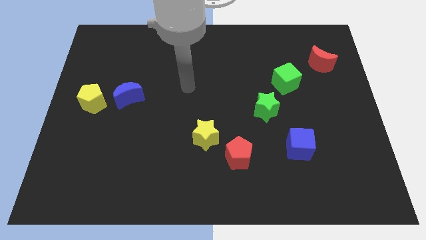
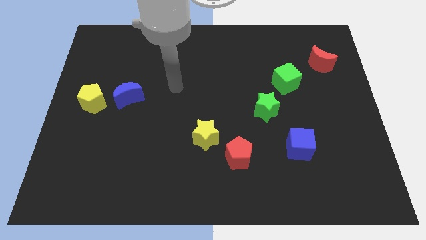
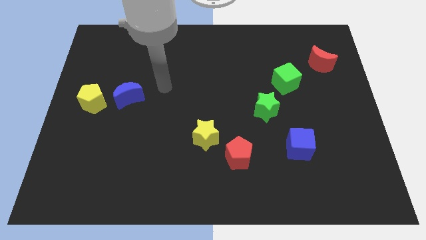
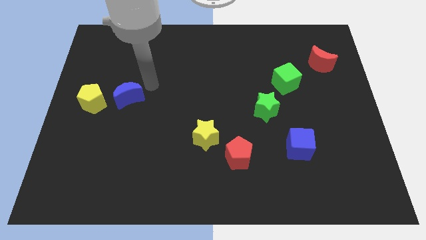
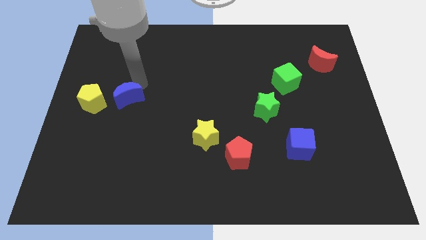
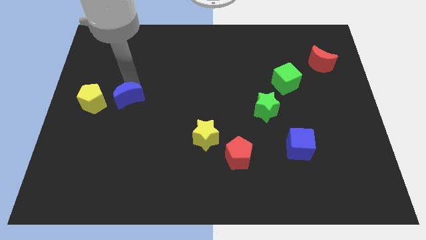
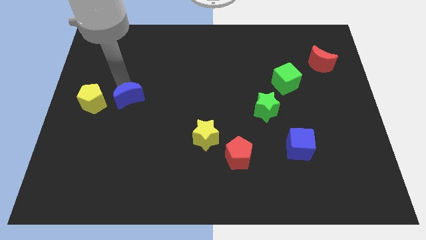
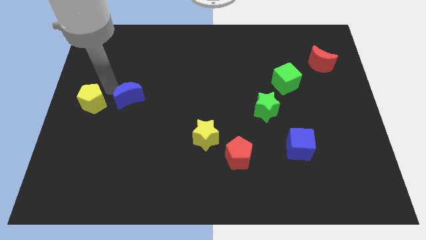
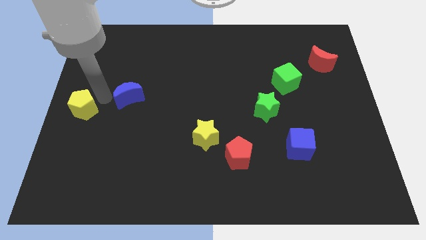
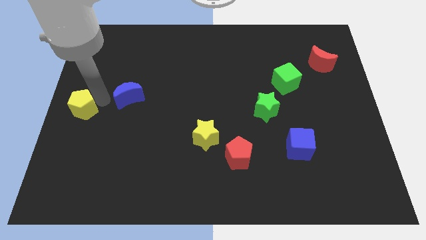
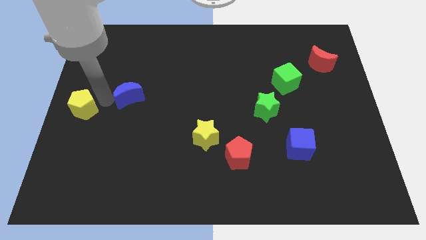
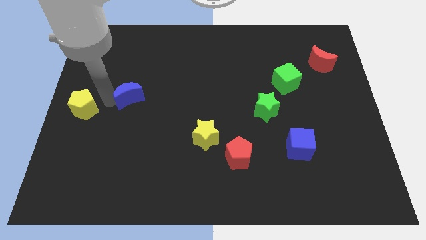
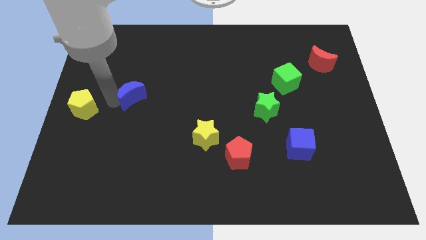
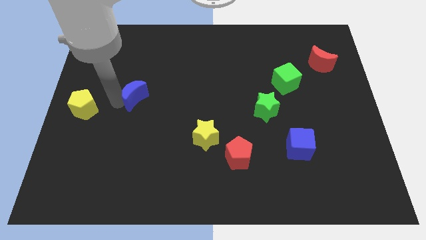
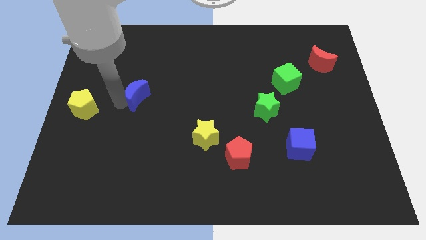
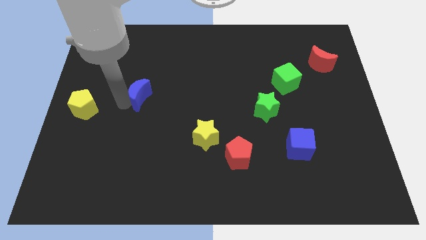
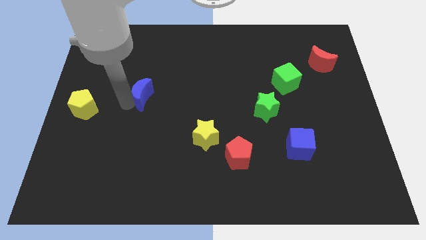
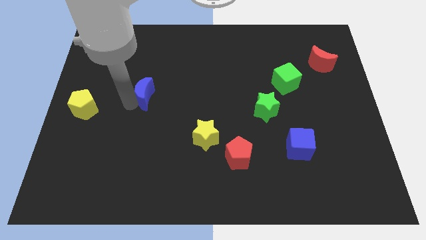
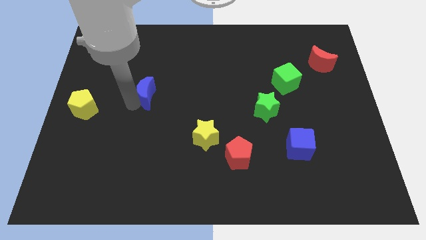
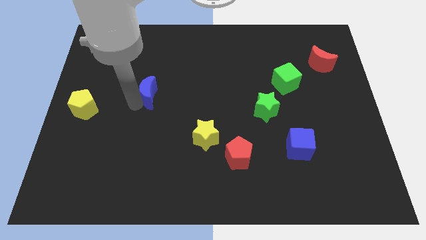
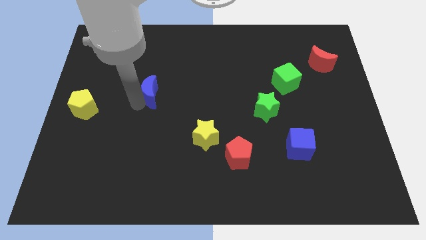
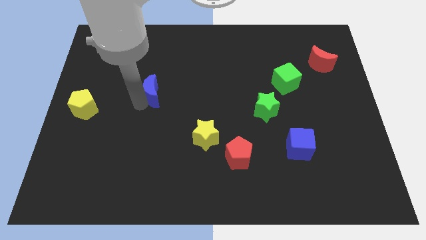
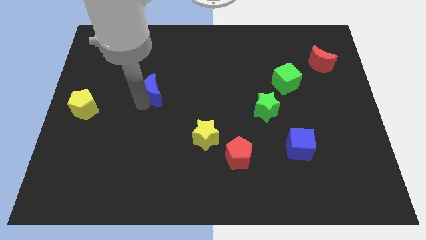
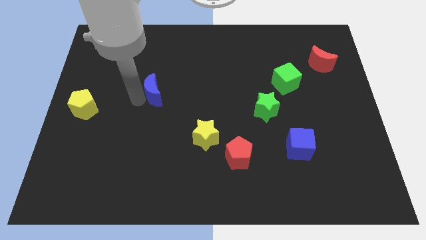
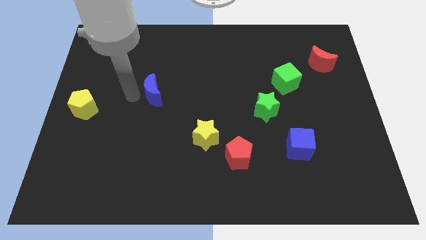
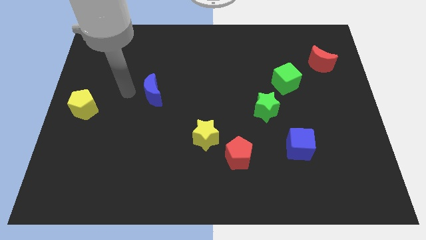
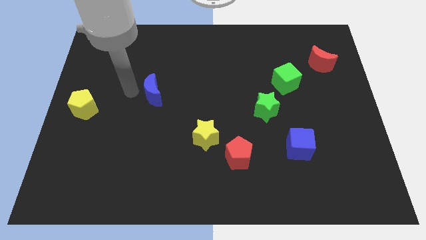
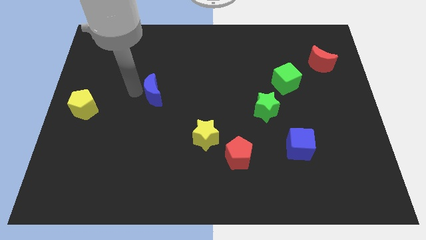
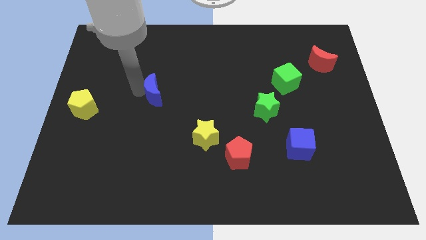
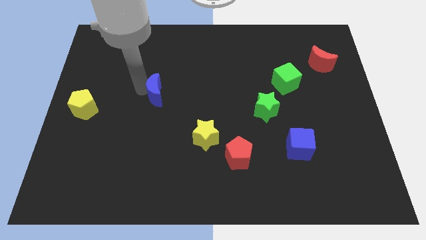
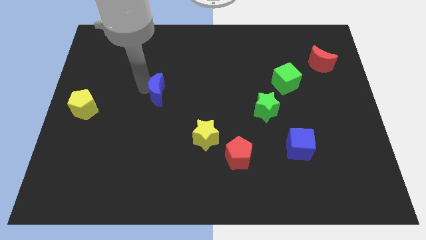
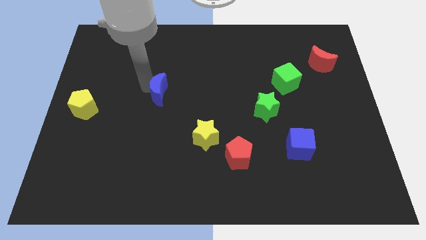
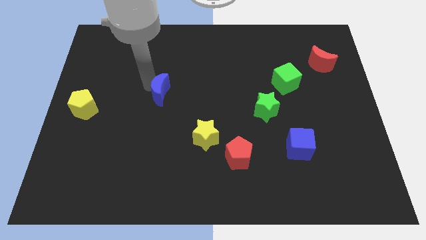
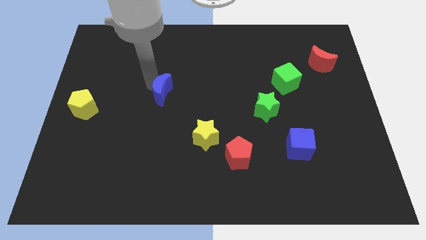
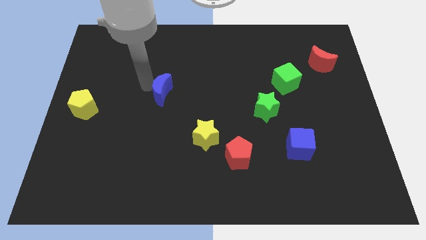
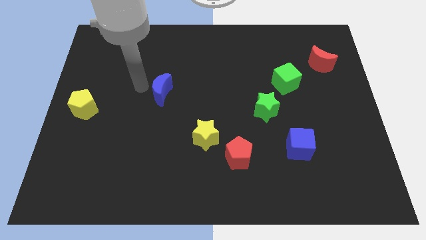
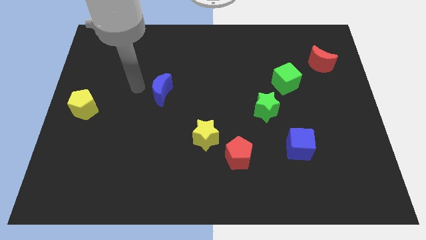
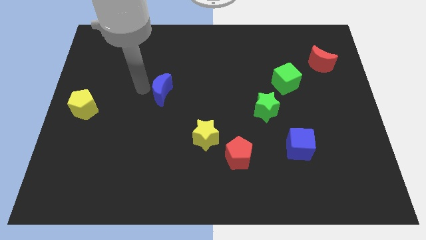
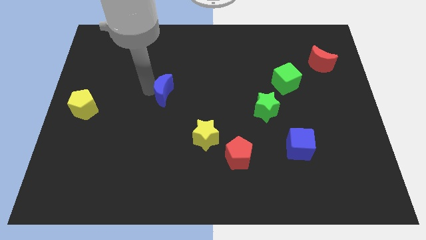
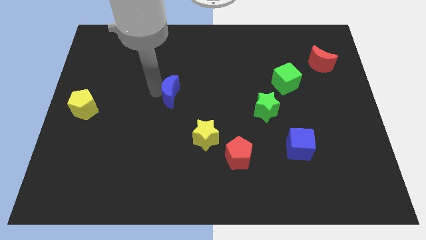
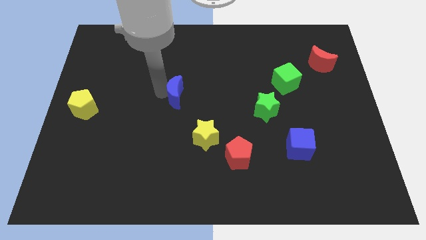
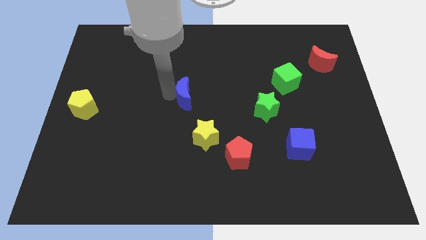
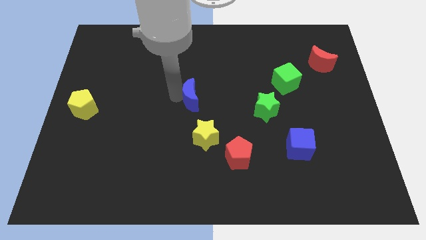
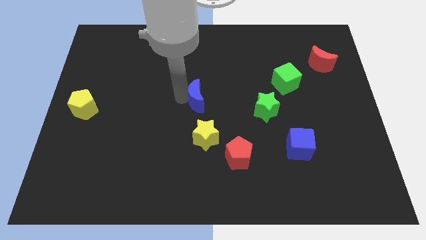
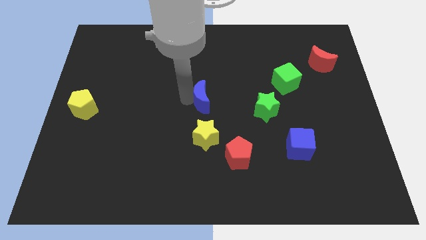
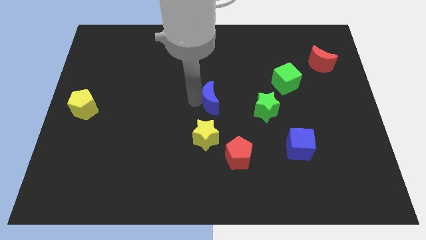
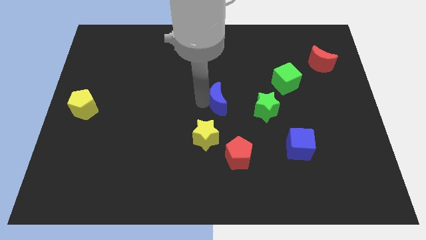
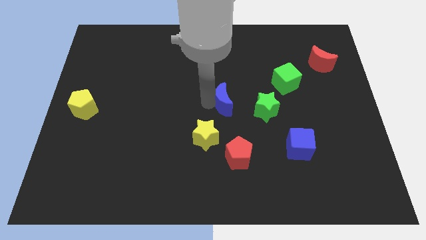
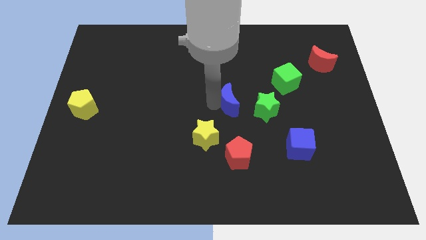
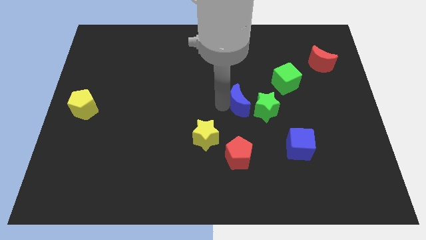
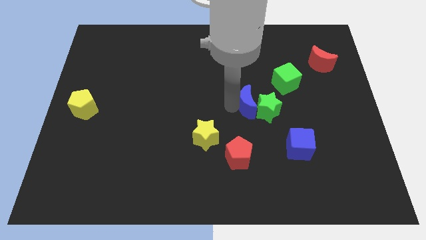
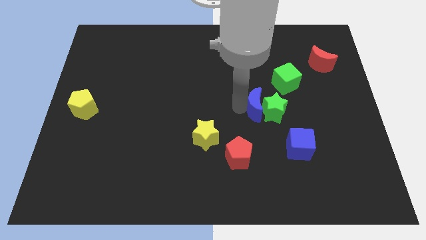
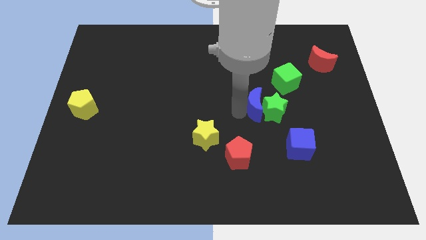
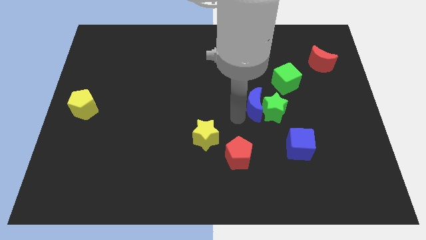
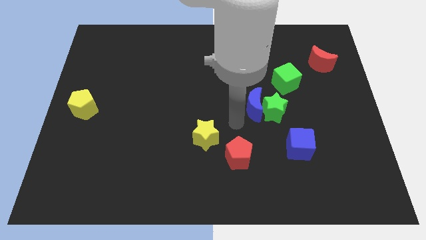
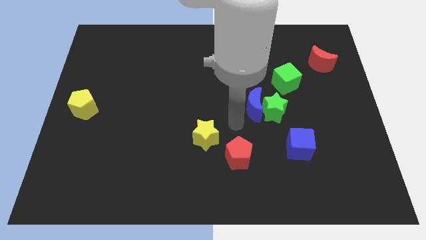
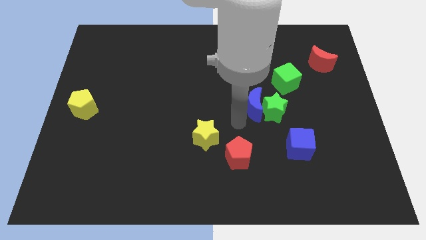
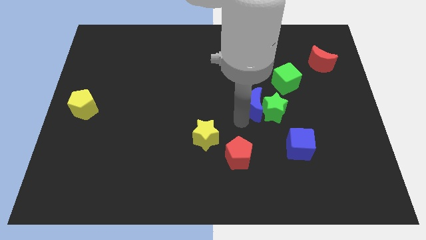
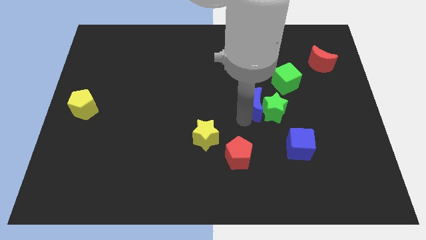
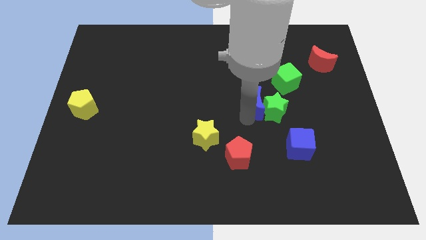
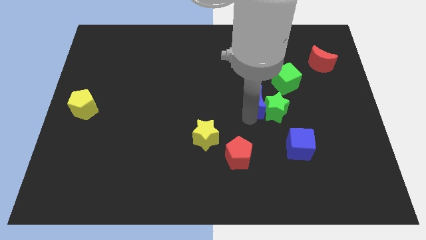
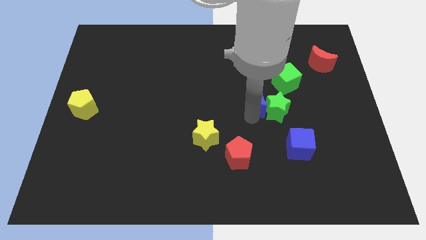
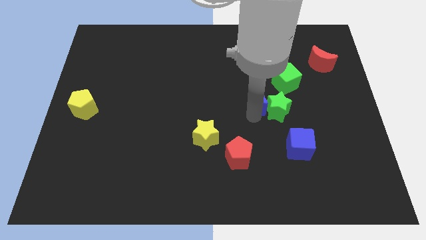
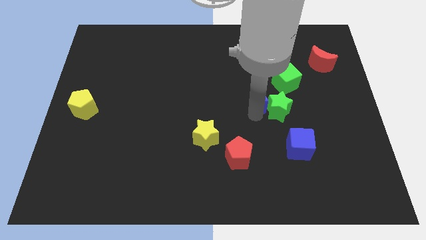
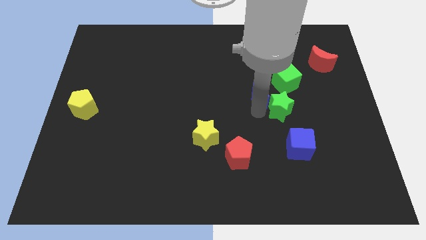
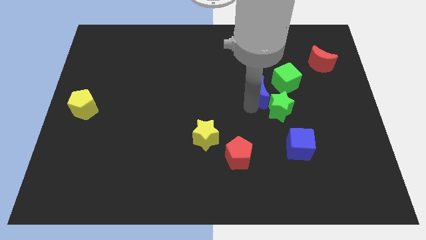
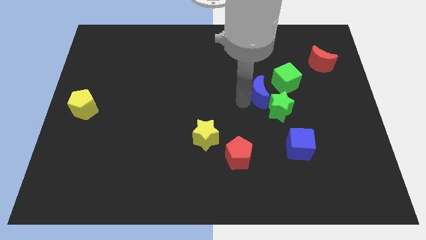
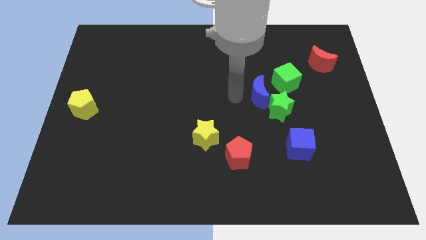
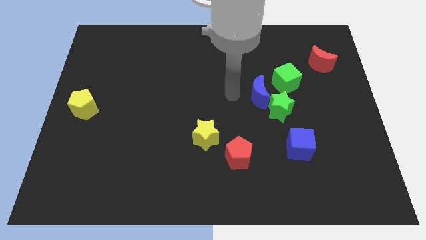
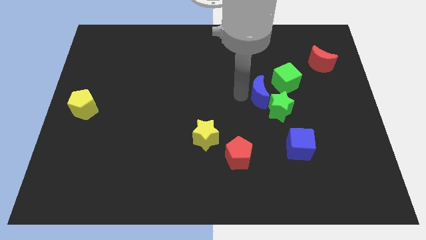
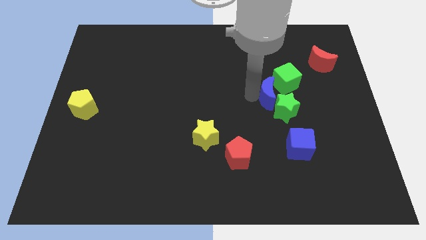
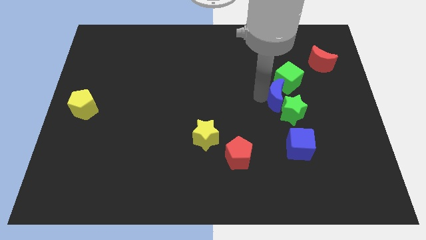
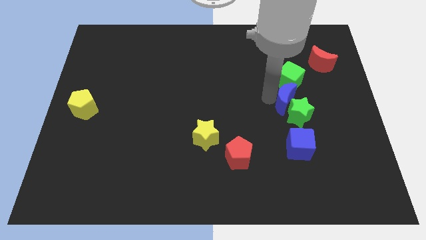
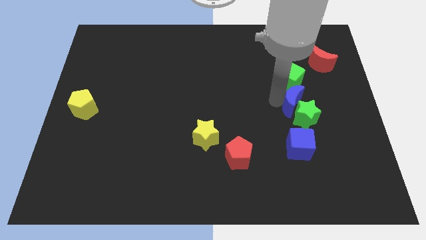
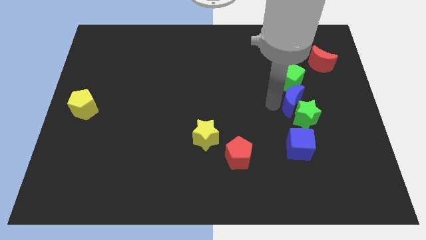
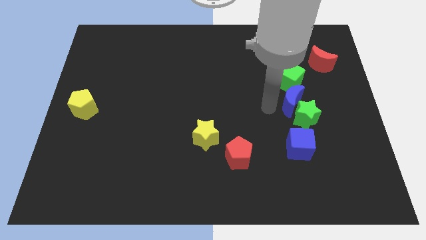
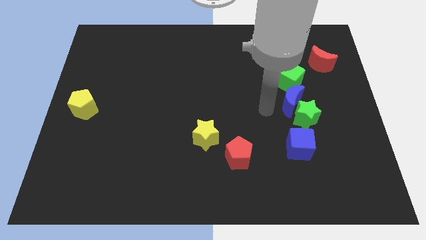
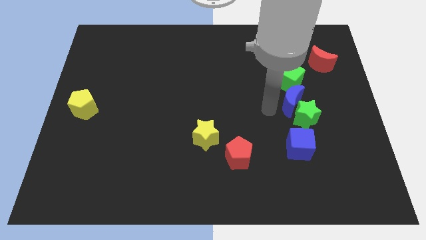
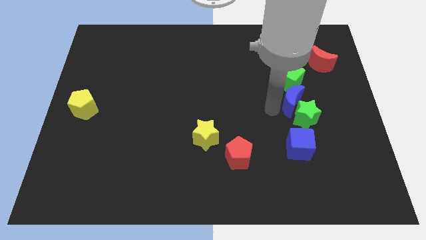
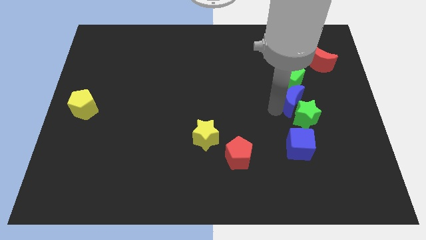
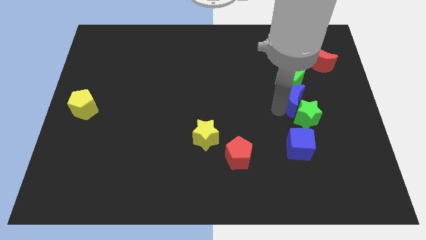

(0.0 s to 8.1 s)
slide the blue moon to the bottom right of the green cube
